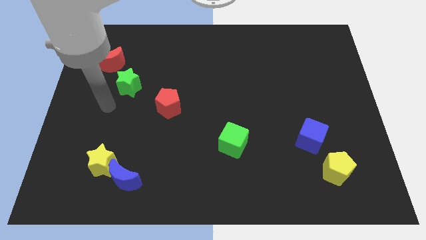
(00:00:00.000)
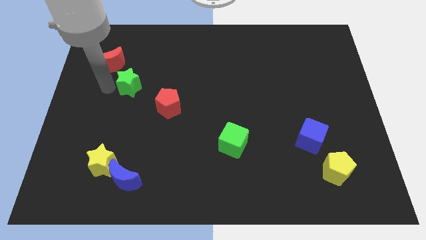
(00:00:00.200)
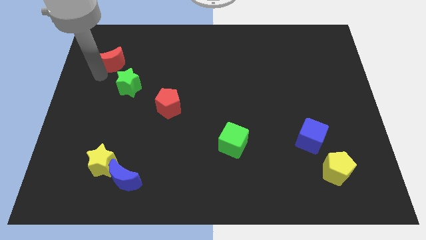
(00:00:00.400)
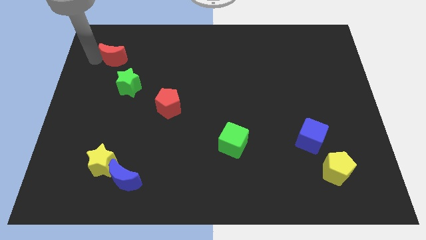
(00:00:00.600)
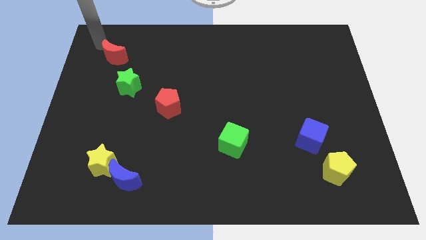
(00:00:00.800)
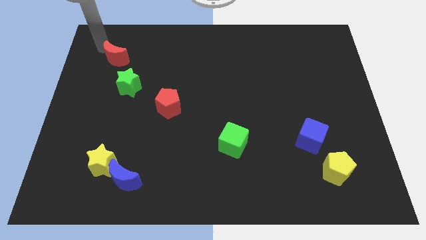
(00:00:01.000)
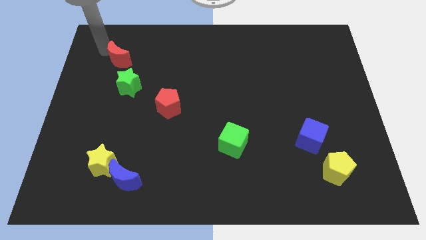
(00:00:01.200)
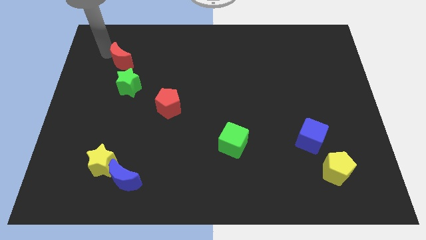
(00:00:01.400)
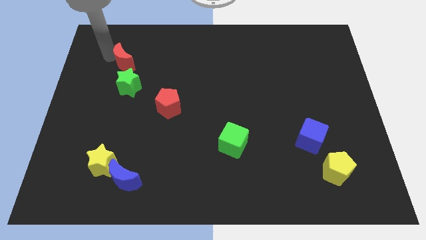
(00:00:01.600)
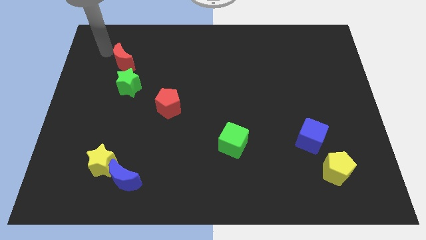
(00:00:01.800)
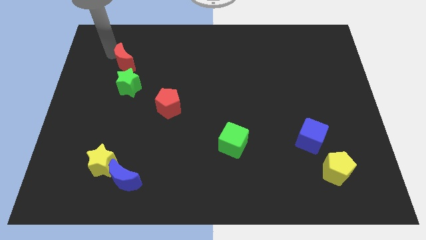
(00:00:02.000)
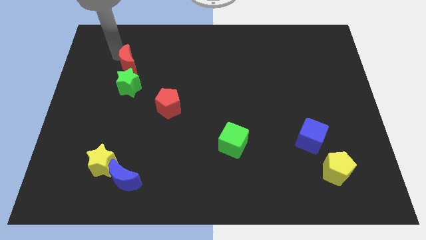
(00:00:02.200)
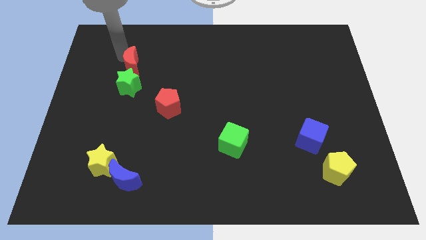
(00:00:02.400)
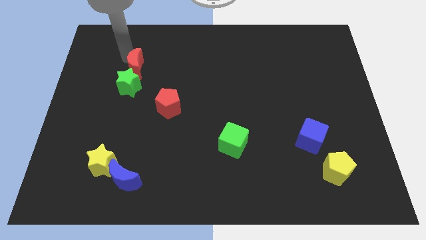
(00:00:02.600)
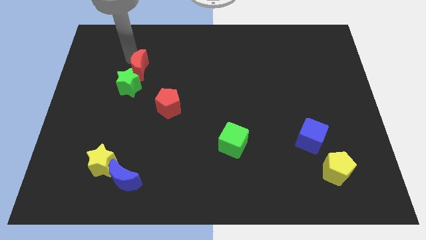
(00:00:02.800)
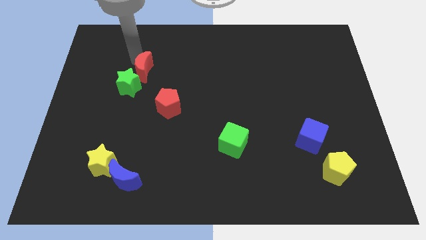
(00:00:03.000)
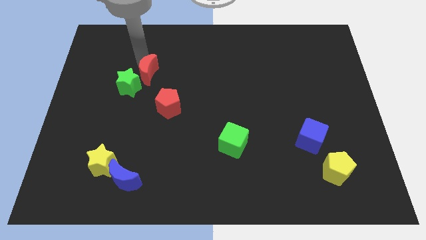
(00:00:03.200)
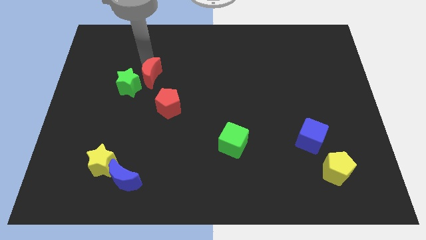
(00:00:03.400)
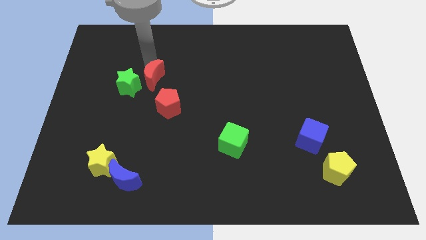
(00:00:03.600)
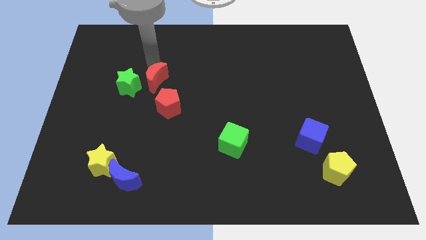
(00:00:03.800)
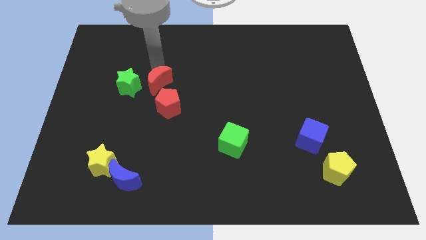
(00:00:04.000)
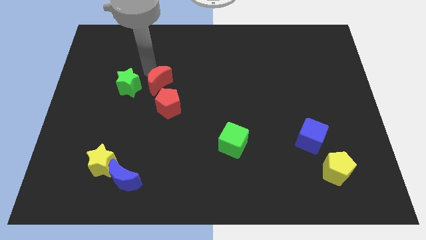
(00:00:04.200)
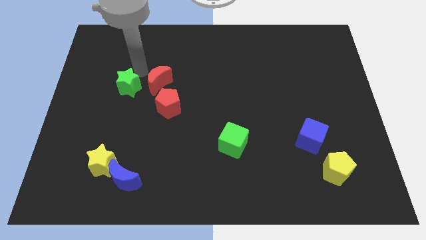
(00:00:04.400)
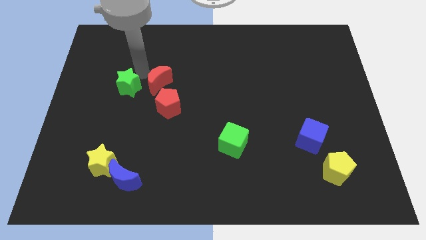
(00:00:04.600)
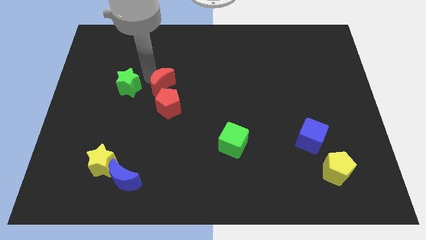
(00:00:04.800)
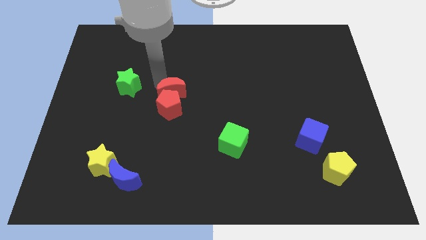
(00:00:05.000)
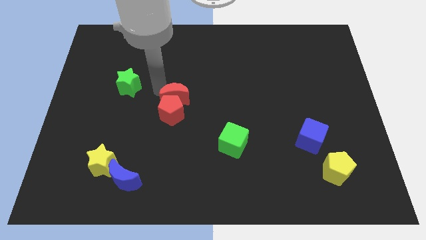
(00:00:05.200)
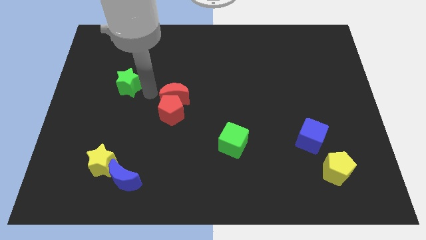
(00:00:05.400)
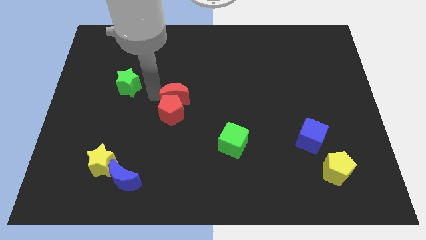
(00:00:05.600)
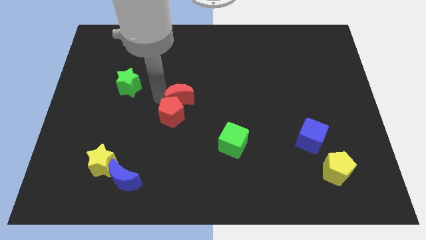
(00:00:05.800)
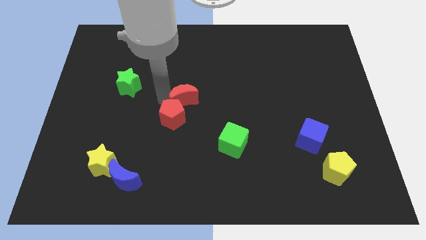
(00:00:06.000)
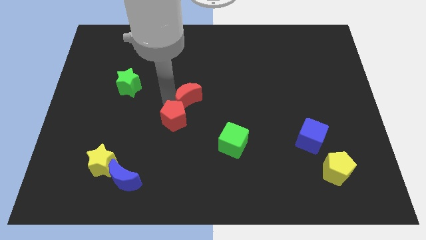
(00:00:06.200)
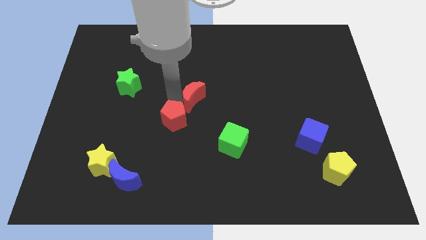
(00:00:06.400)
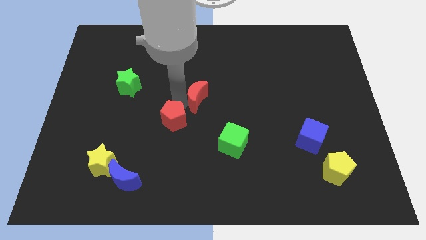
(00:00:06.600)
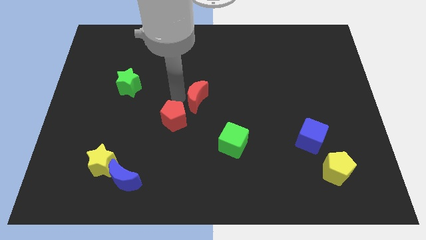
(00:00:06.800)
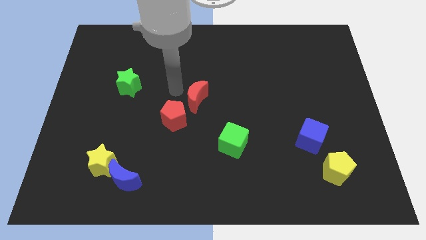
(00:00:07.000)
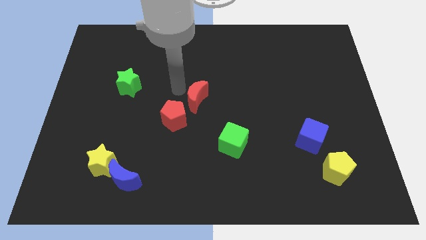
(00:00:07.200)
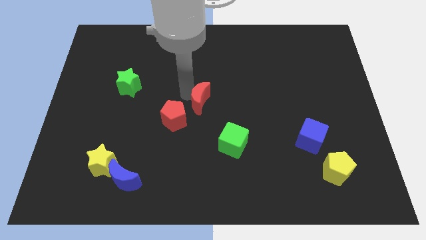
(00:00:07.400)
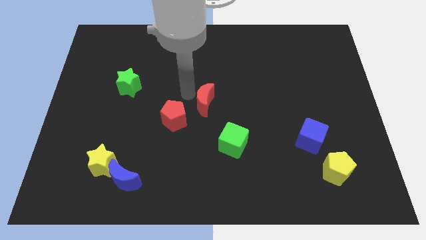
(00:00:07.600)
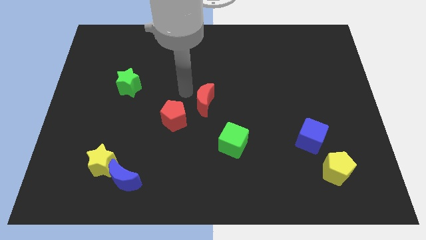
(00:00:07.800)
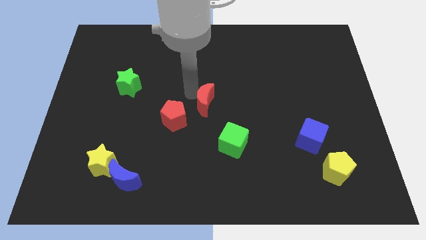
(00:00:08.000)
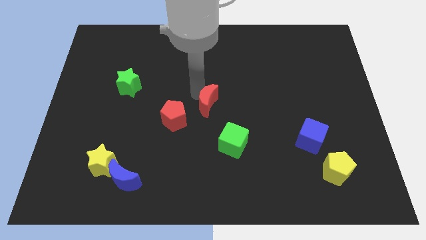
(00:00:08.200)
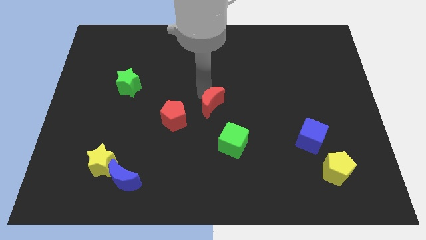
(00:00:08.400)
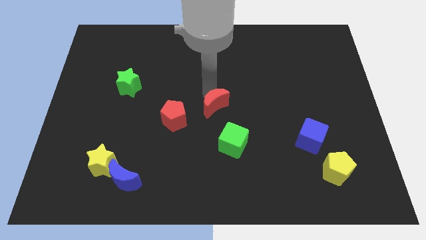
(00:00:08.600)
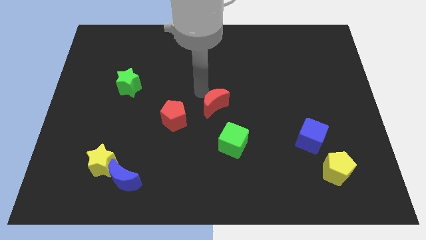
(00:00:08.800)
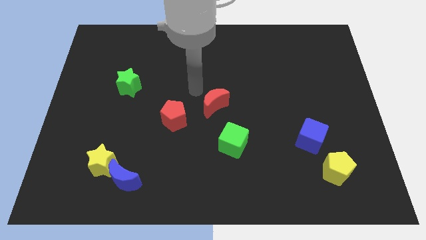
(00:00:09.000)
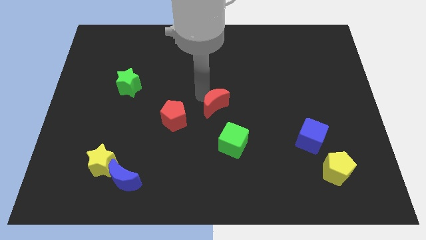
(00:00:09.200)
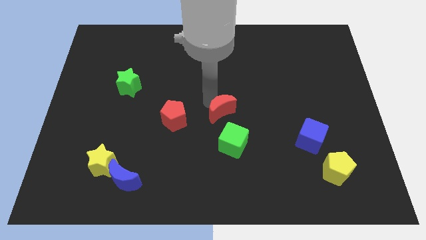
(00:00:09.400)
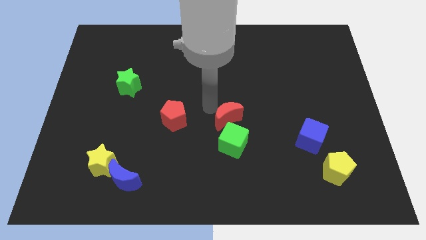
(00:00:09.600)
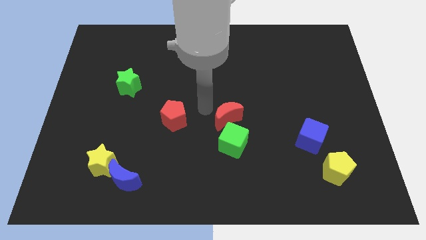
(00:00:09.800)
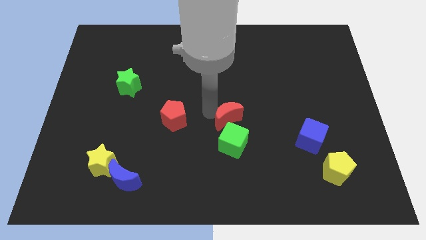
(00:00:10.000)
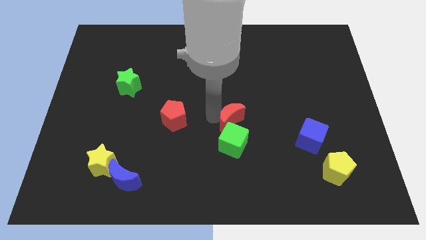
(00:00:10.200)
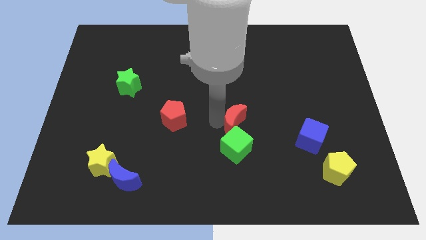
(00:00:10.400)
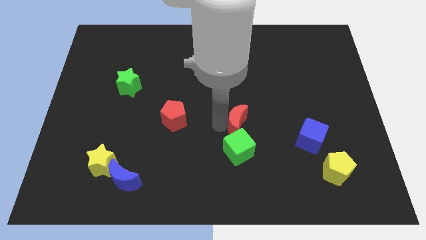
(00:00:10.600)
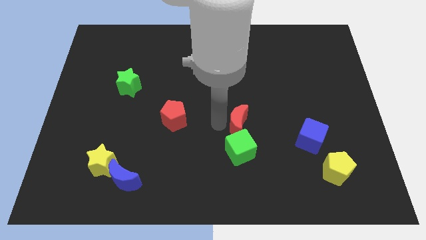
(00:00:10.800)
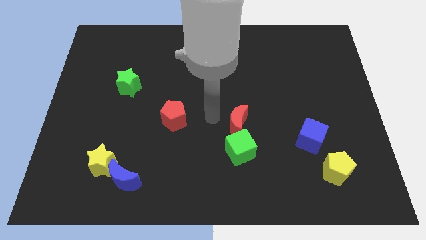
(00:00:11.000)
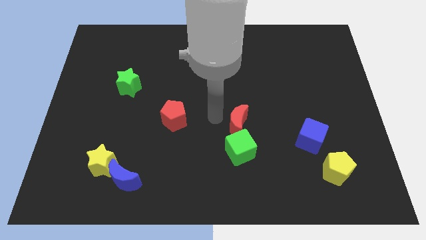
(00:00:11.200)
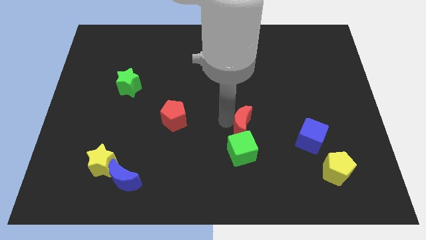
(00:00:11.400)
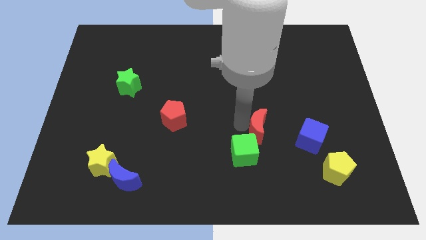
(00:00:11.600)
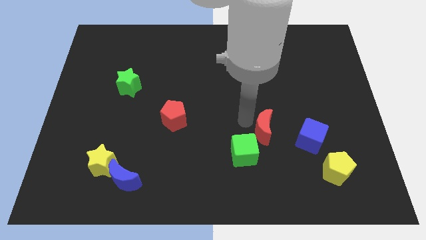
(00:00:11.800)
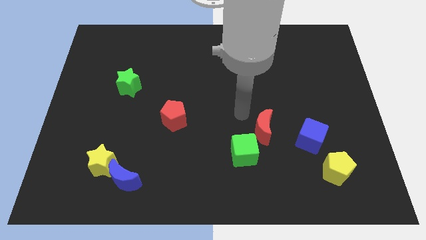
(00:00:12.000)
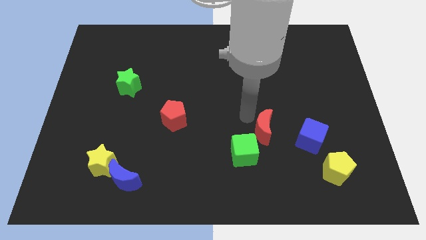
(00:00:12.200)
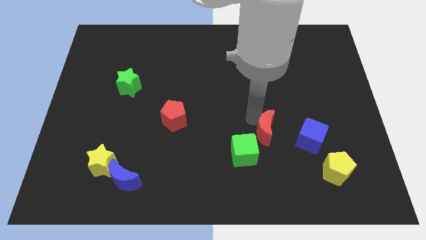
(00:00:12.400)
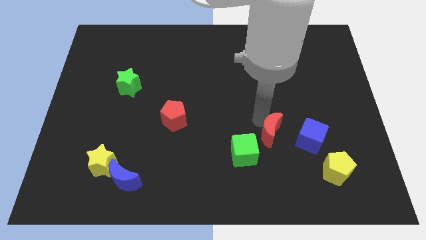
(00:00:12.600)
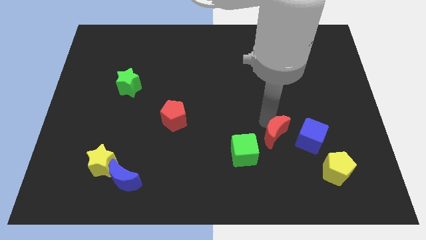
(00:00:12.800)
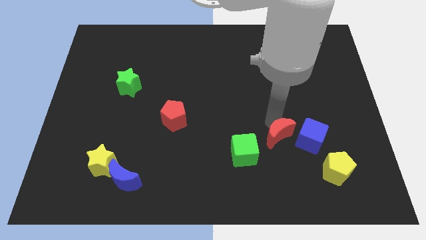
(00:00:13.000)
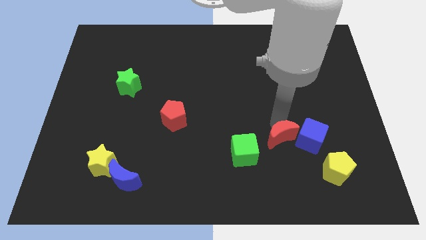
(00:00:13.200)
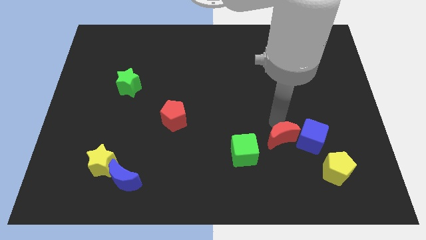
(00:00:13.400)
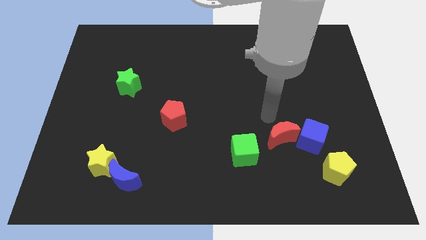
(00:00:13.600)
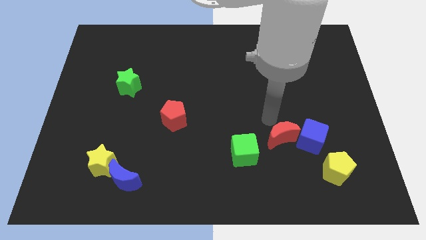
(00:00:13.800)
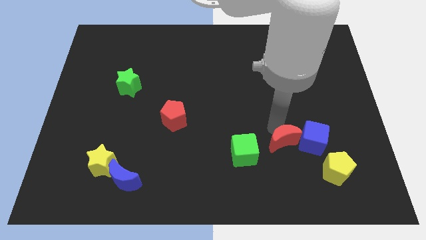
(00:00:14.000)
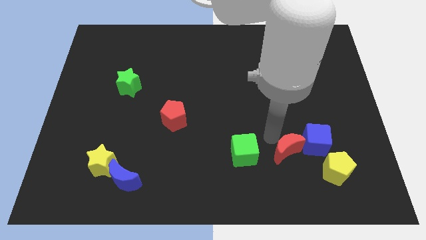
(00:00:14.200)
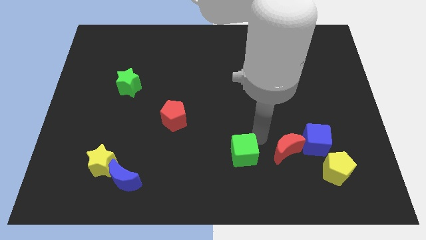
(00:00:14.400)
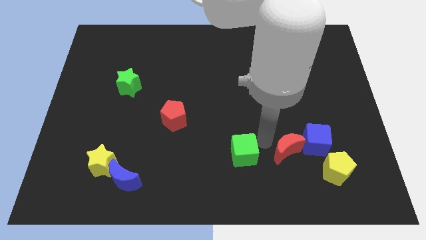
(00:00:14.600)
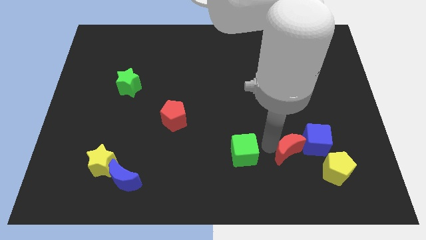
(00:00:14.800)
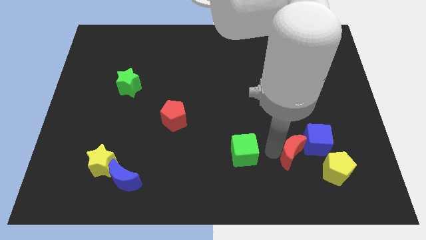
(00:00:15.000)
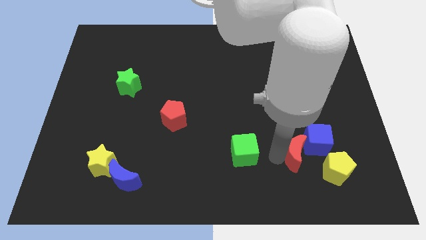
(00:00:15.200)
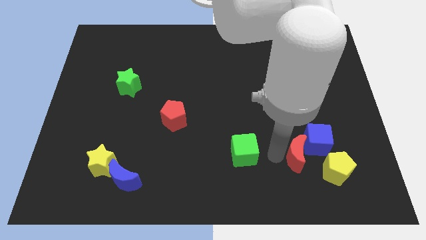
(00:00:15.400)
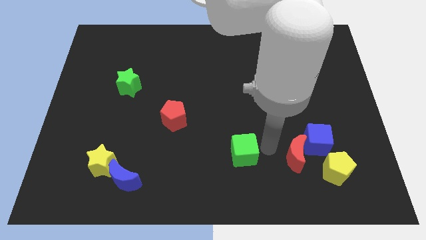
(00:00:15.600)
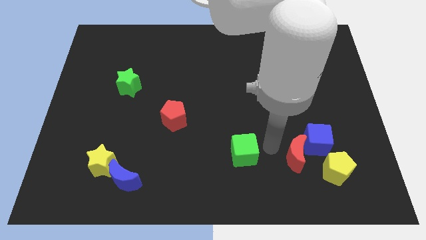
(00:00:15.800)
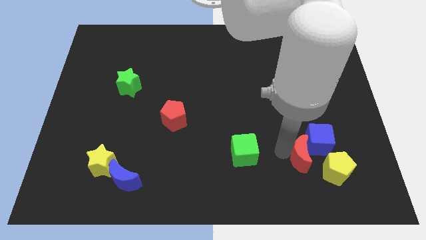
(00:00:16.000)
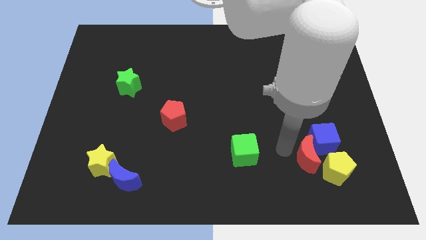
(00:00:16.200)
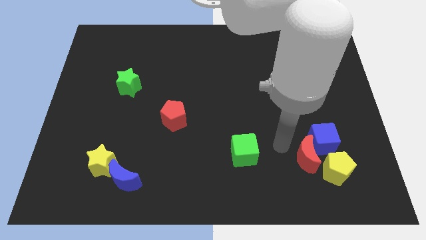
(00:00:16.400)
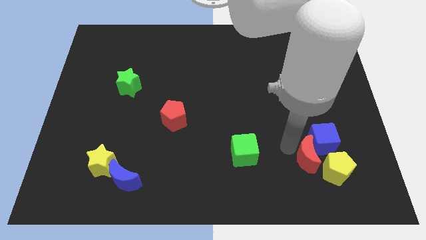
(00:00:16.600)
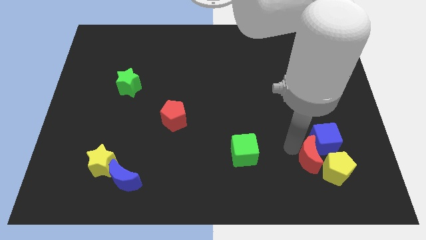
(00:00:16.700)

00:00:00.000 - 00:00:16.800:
move the red moon towards the yellow pentagon
